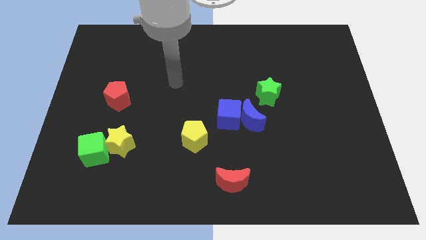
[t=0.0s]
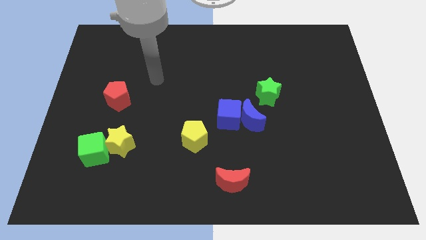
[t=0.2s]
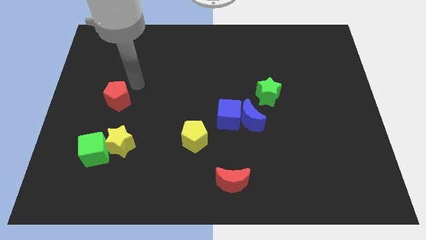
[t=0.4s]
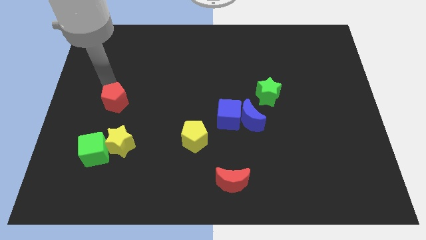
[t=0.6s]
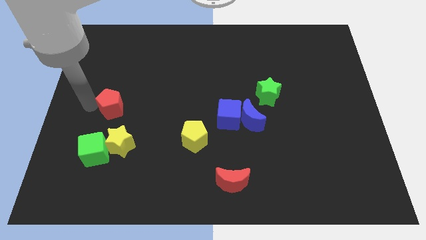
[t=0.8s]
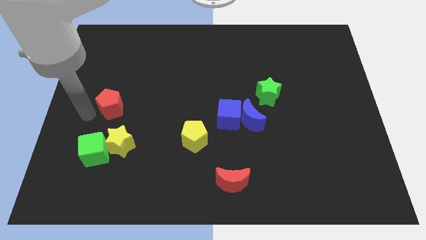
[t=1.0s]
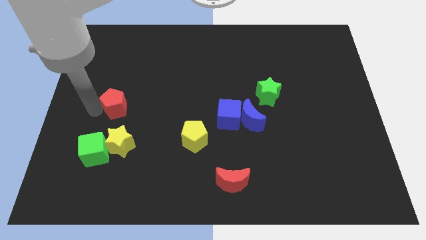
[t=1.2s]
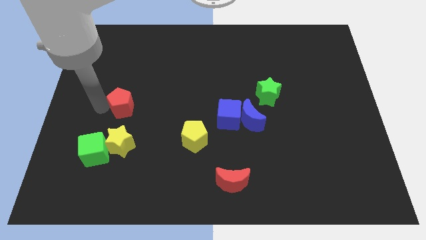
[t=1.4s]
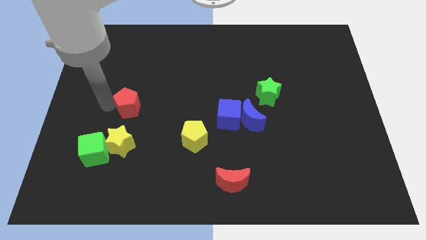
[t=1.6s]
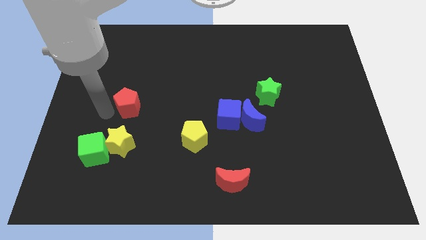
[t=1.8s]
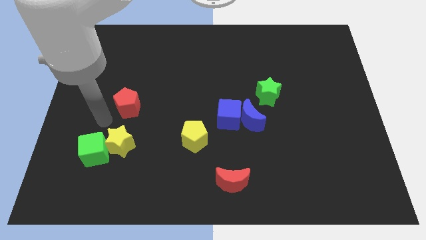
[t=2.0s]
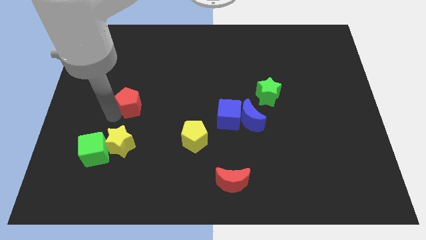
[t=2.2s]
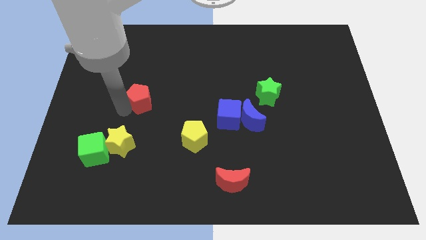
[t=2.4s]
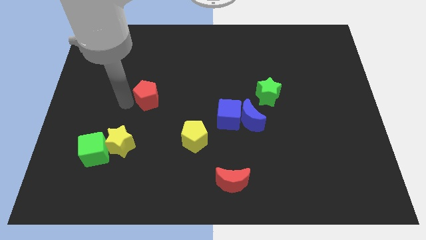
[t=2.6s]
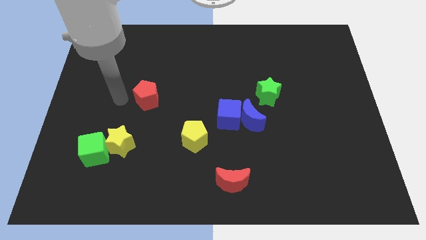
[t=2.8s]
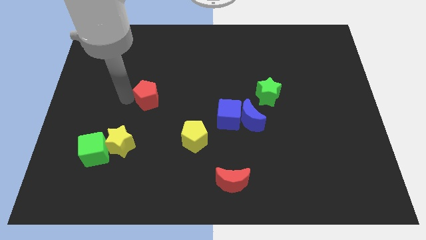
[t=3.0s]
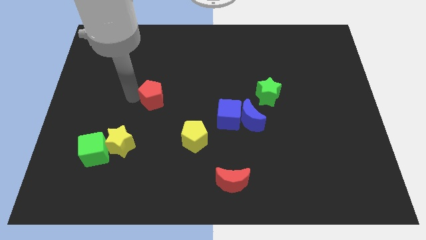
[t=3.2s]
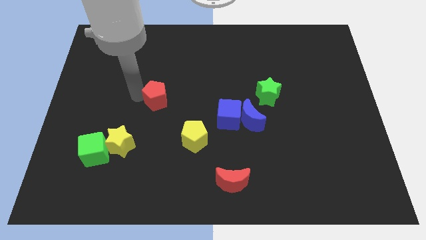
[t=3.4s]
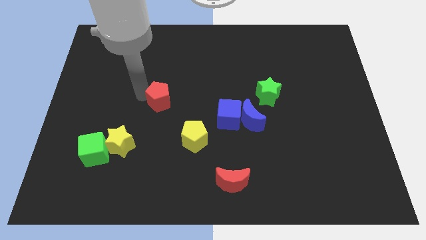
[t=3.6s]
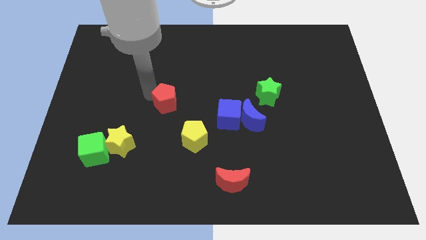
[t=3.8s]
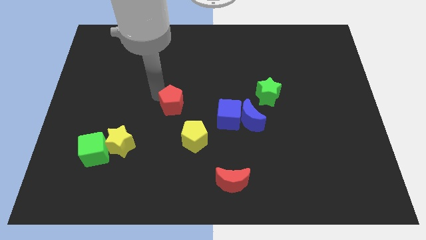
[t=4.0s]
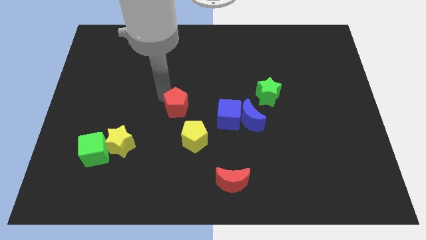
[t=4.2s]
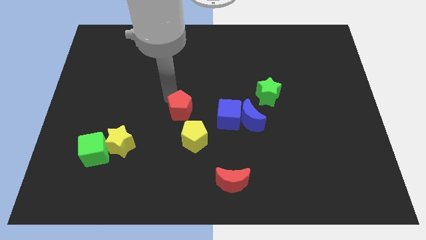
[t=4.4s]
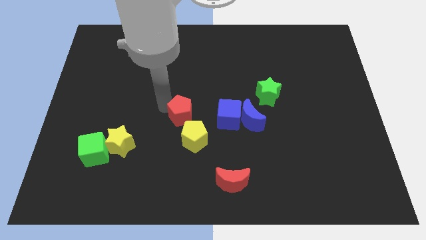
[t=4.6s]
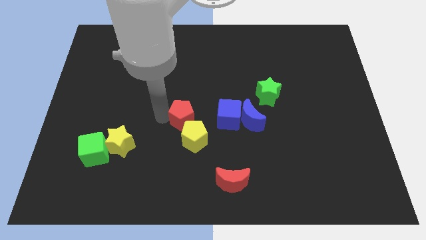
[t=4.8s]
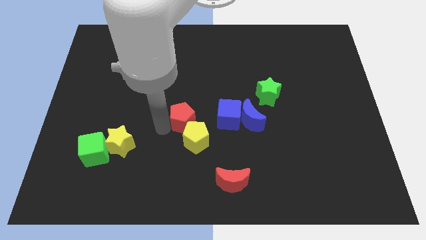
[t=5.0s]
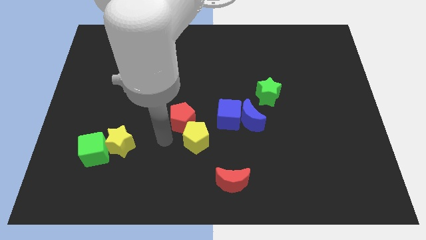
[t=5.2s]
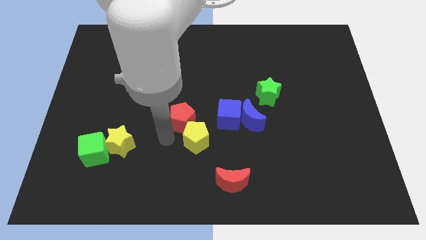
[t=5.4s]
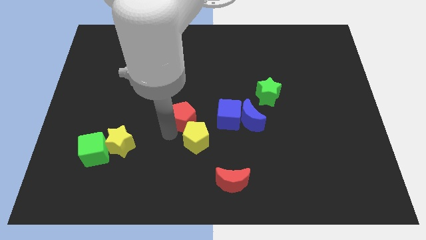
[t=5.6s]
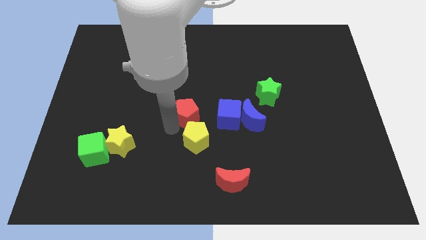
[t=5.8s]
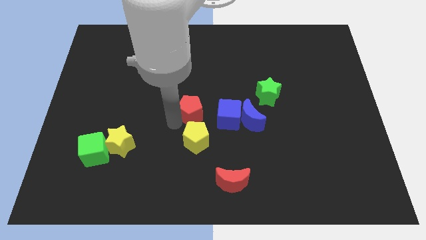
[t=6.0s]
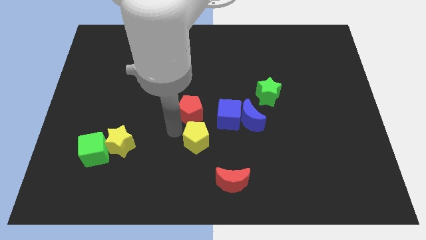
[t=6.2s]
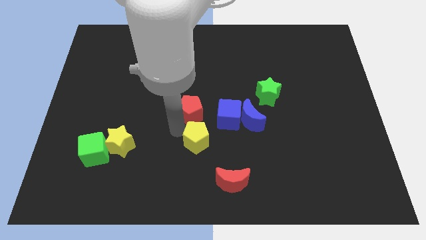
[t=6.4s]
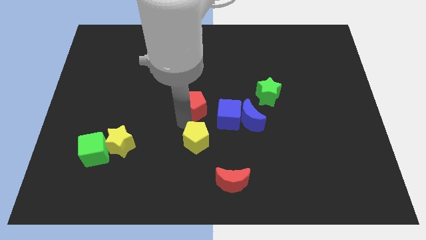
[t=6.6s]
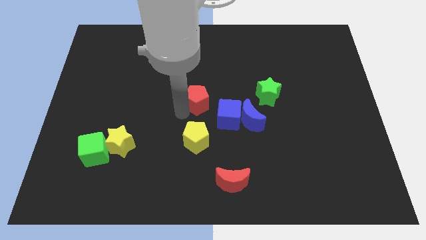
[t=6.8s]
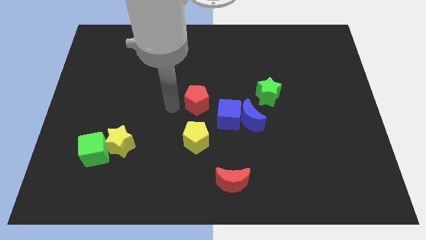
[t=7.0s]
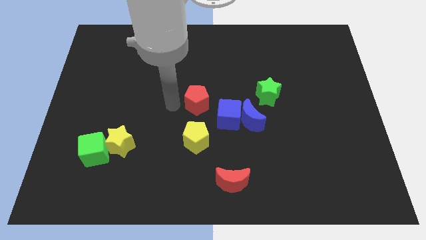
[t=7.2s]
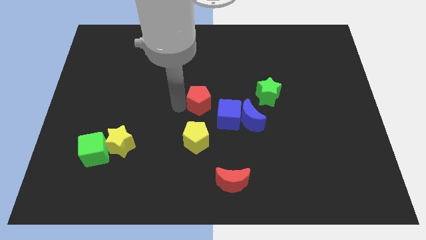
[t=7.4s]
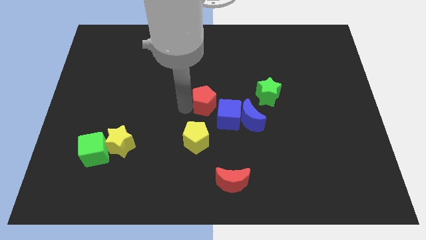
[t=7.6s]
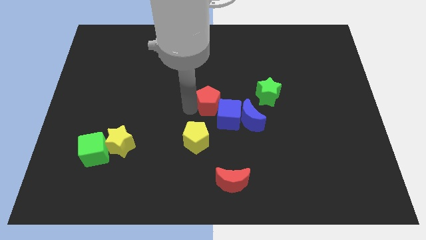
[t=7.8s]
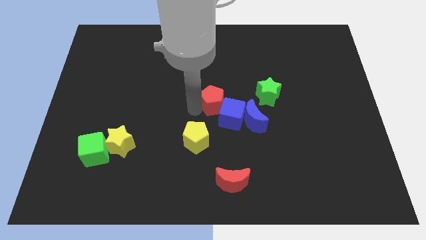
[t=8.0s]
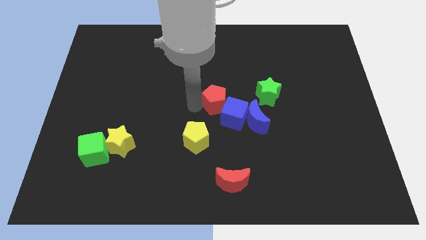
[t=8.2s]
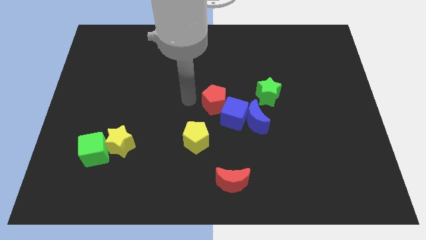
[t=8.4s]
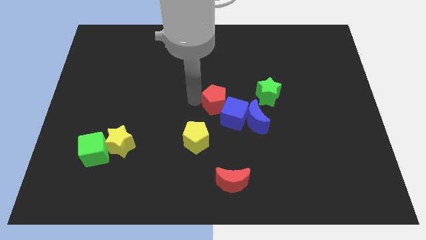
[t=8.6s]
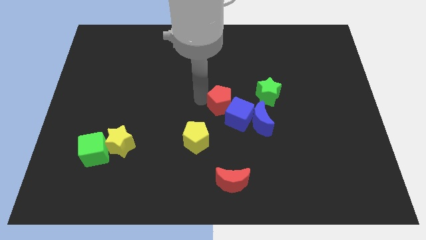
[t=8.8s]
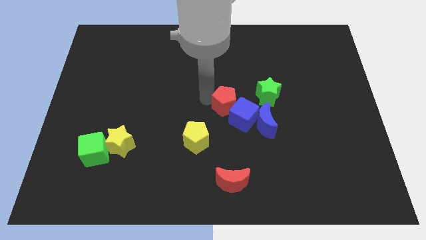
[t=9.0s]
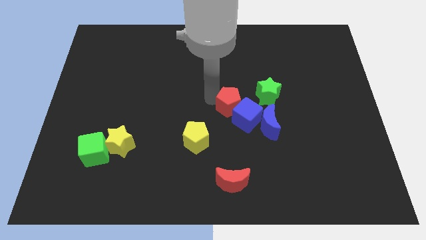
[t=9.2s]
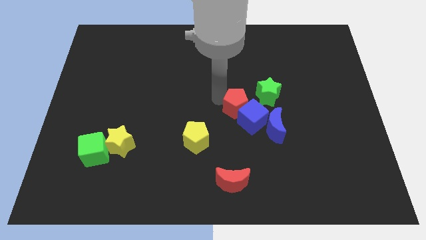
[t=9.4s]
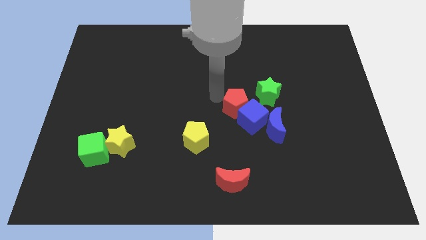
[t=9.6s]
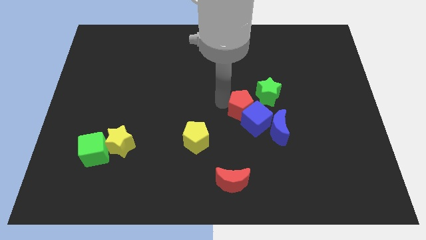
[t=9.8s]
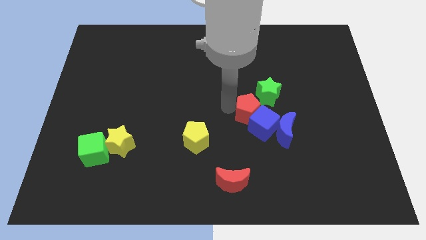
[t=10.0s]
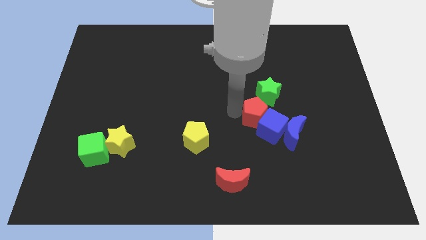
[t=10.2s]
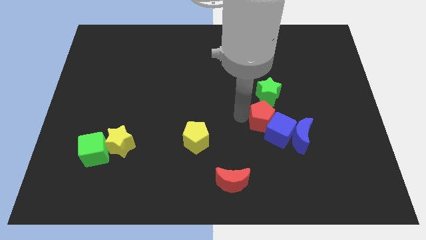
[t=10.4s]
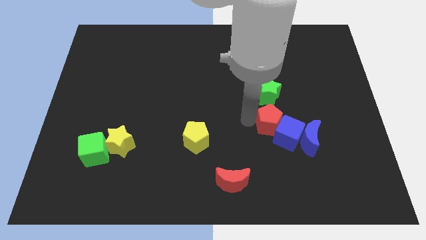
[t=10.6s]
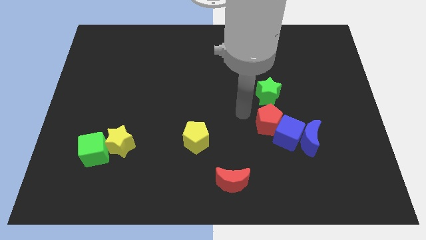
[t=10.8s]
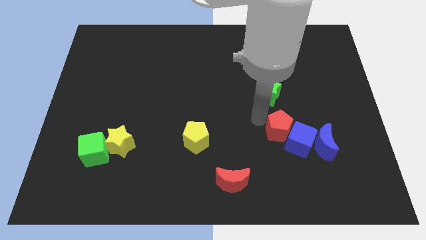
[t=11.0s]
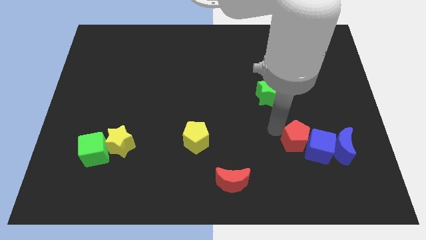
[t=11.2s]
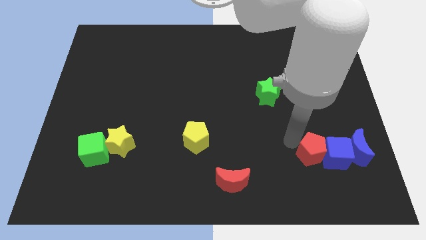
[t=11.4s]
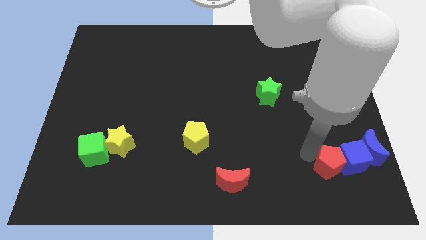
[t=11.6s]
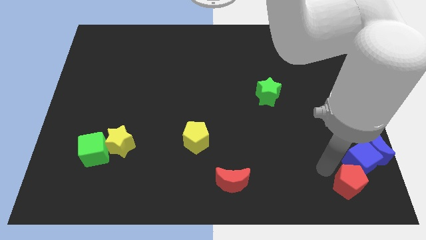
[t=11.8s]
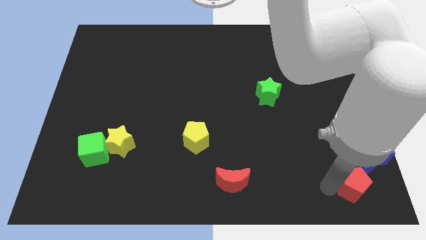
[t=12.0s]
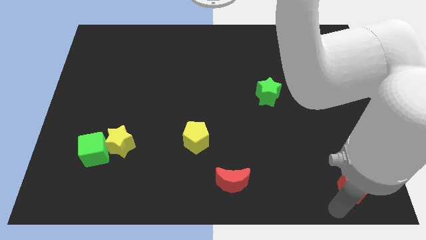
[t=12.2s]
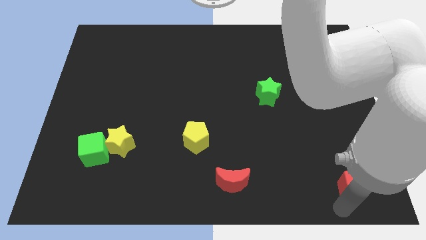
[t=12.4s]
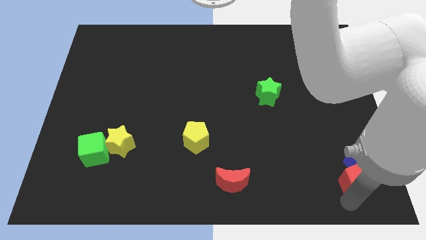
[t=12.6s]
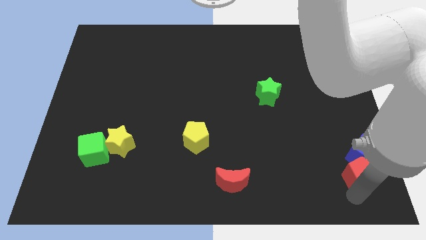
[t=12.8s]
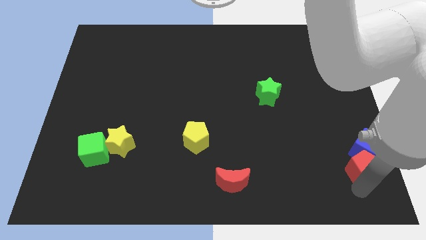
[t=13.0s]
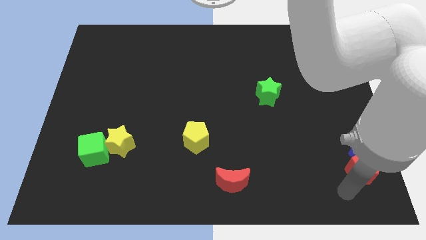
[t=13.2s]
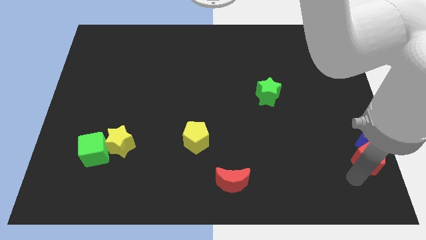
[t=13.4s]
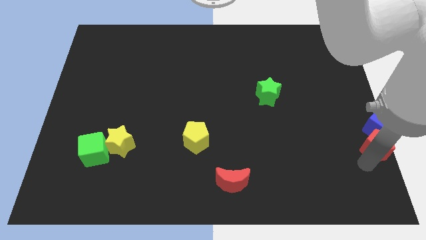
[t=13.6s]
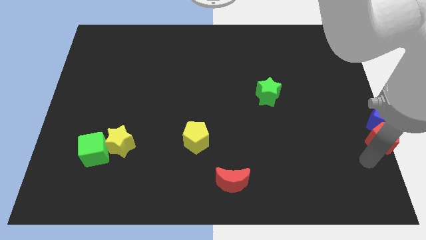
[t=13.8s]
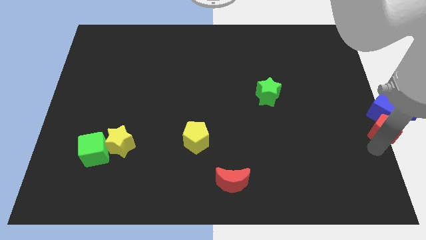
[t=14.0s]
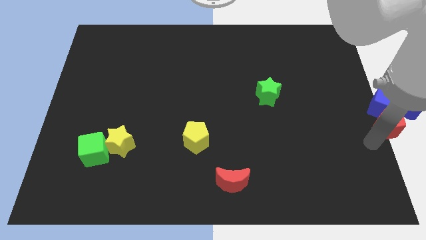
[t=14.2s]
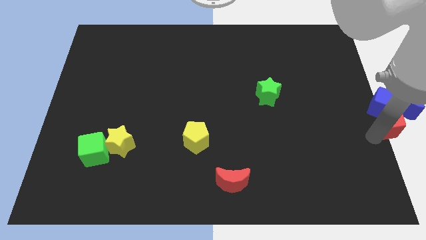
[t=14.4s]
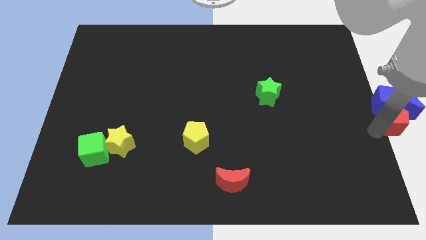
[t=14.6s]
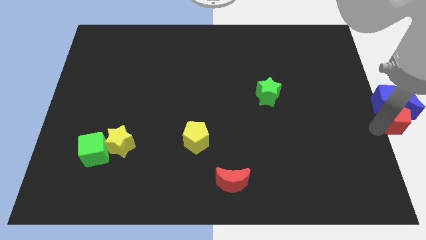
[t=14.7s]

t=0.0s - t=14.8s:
move the red pentagon towards the blue moon

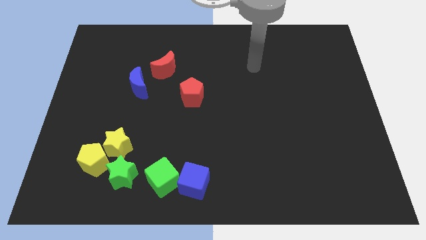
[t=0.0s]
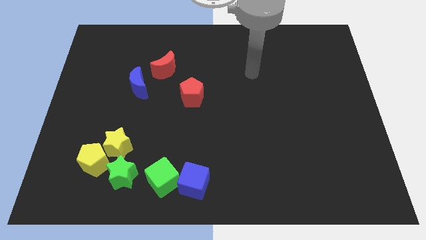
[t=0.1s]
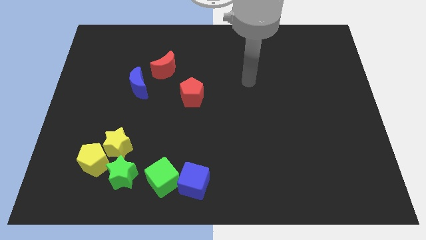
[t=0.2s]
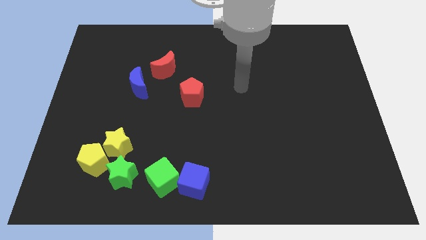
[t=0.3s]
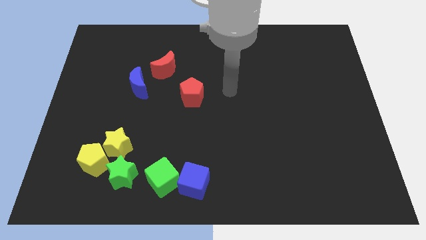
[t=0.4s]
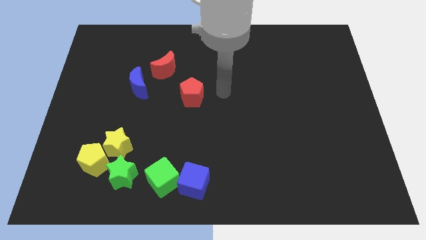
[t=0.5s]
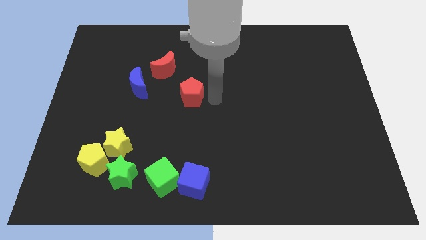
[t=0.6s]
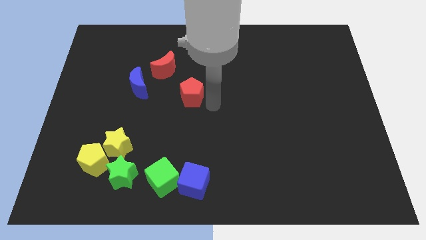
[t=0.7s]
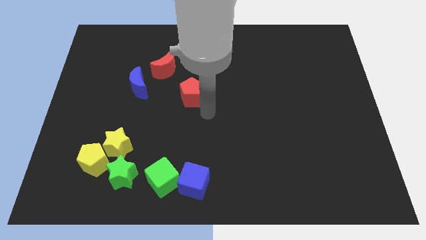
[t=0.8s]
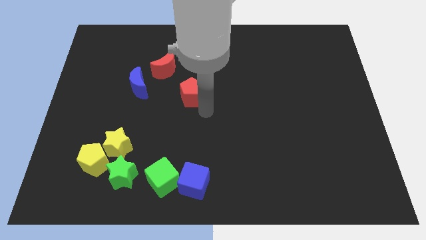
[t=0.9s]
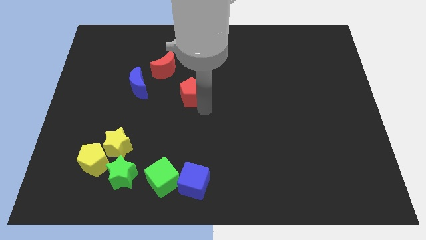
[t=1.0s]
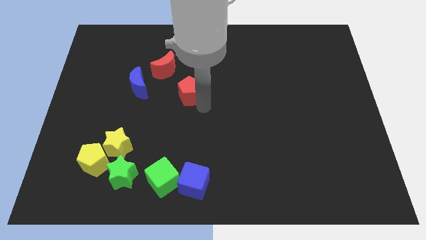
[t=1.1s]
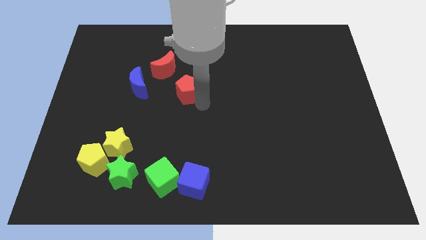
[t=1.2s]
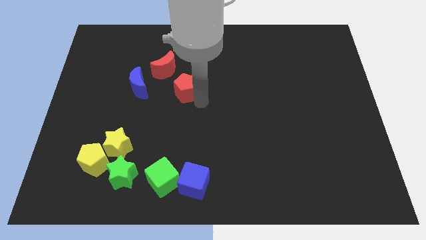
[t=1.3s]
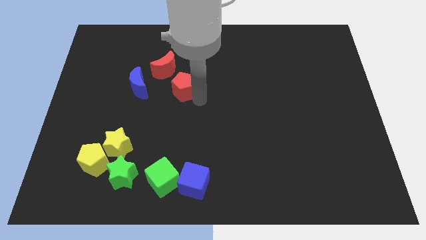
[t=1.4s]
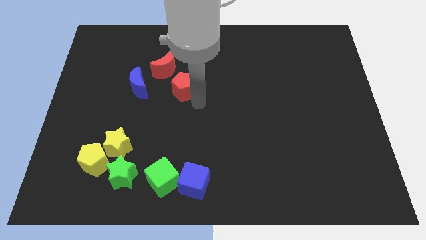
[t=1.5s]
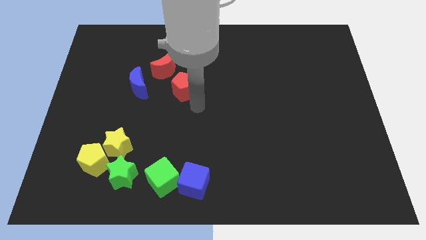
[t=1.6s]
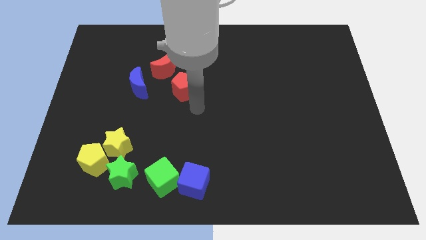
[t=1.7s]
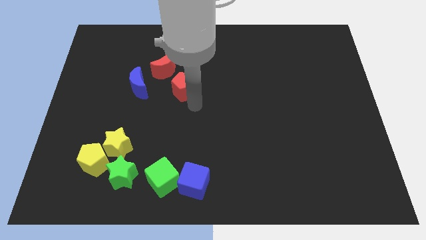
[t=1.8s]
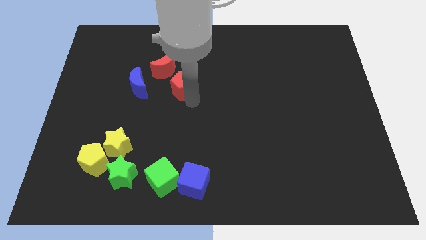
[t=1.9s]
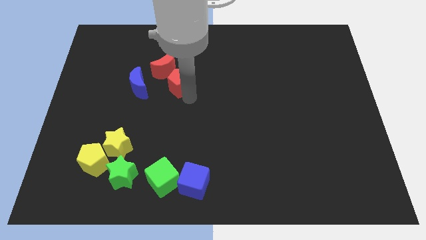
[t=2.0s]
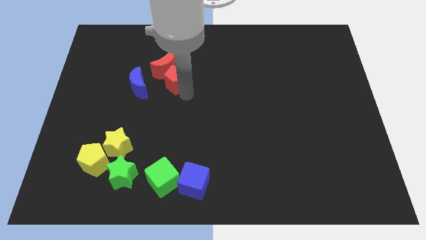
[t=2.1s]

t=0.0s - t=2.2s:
move the red pentagon to the red moon
